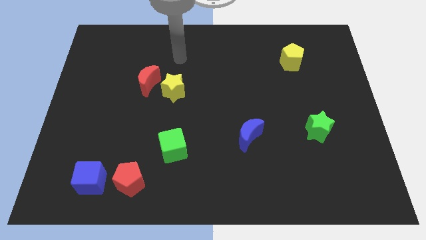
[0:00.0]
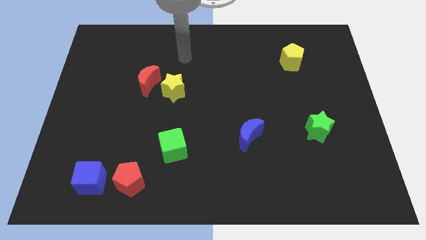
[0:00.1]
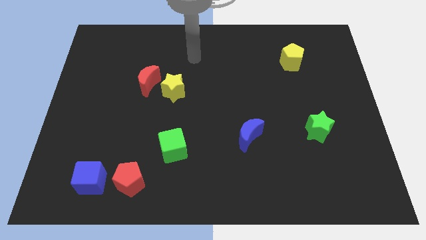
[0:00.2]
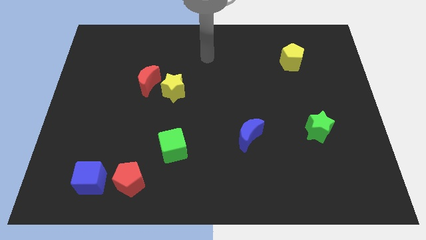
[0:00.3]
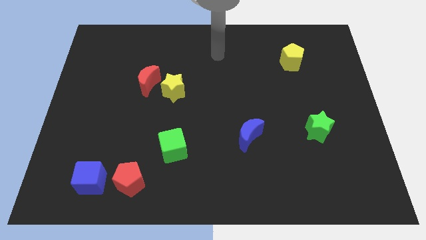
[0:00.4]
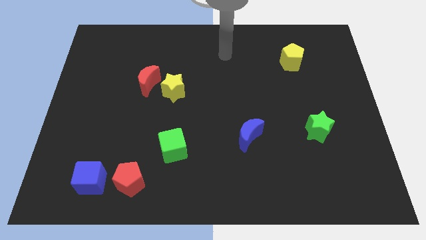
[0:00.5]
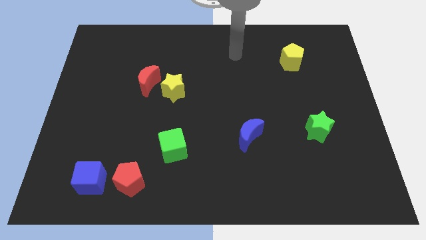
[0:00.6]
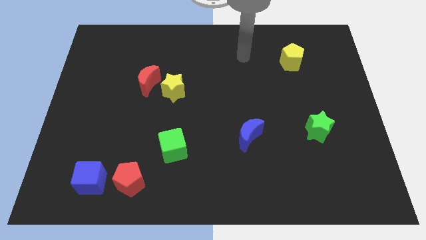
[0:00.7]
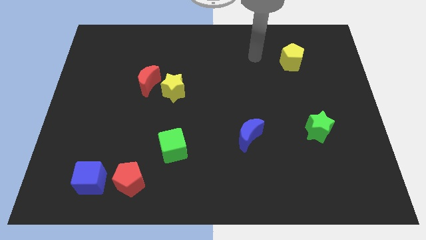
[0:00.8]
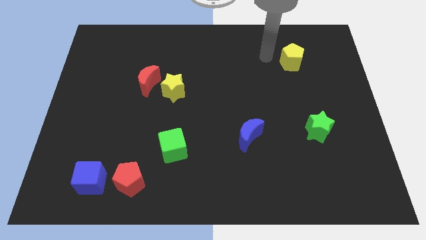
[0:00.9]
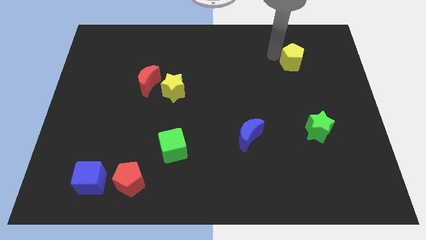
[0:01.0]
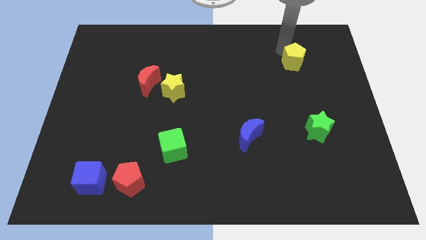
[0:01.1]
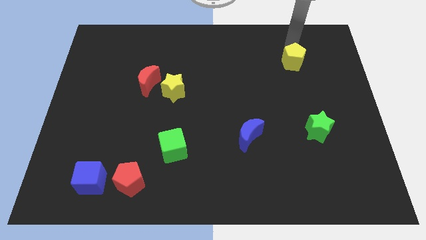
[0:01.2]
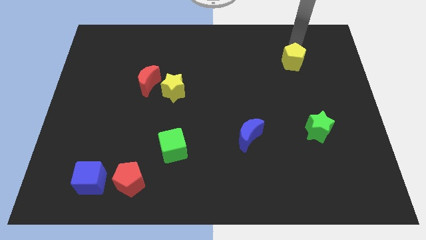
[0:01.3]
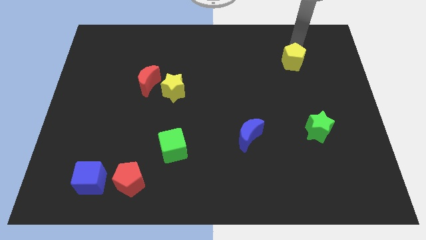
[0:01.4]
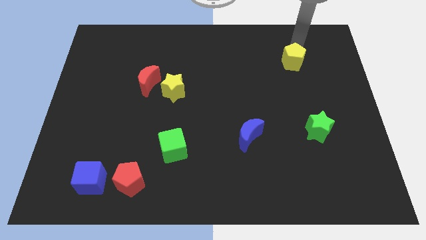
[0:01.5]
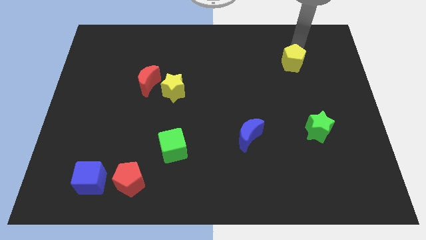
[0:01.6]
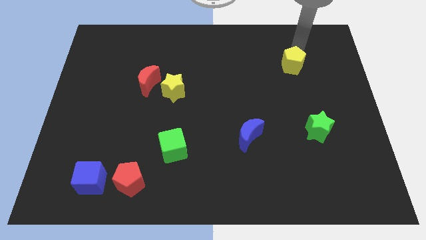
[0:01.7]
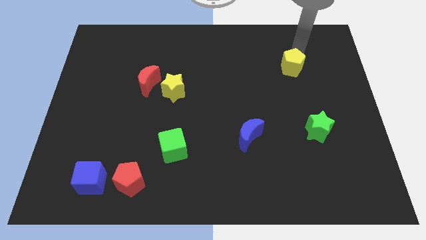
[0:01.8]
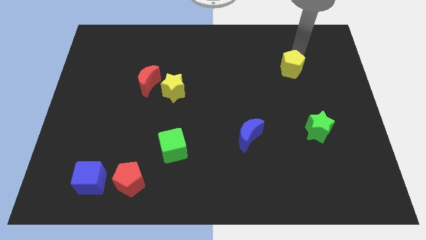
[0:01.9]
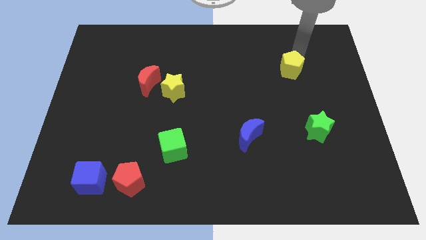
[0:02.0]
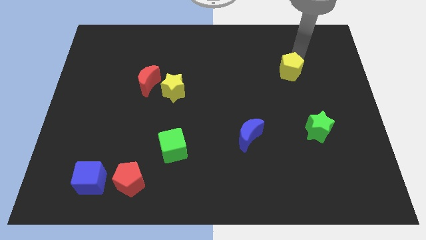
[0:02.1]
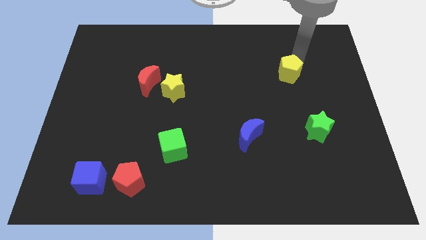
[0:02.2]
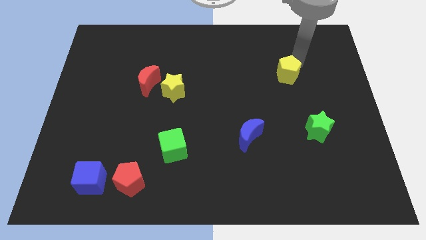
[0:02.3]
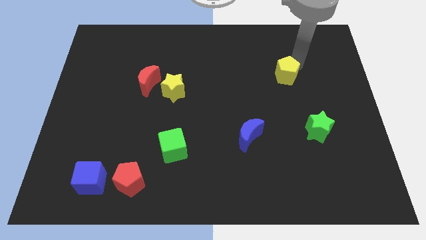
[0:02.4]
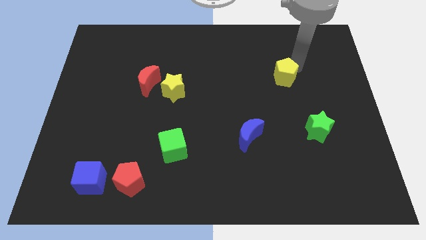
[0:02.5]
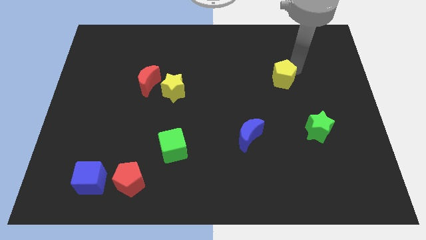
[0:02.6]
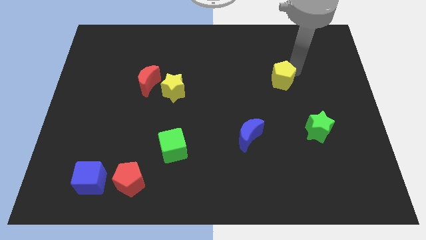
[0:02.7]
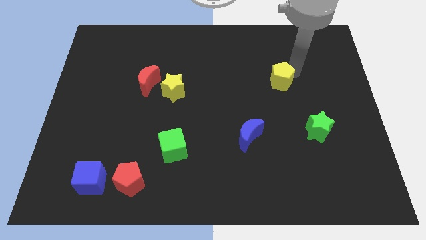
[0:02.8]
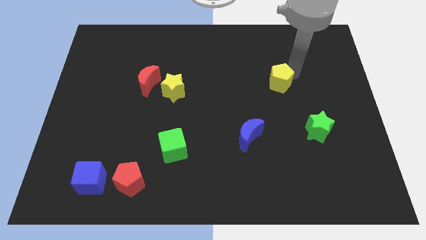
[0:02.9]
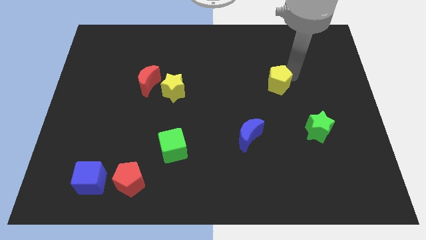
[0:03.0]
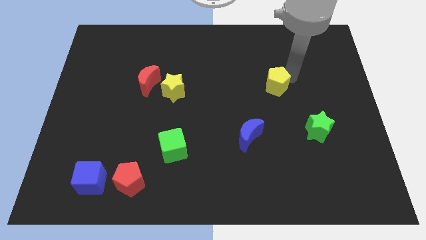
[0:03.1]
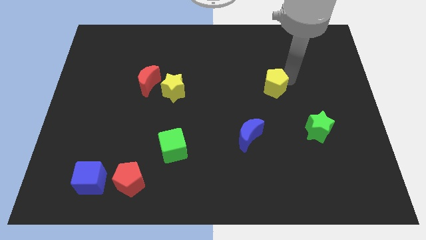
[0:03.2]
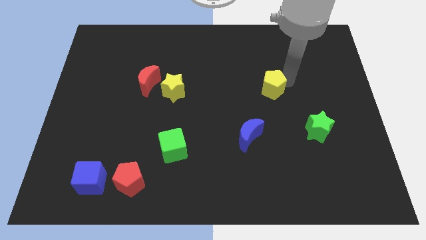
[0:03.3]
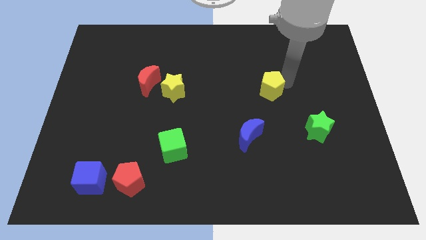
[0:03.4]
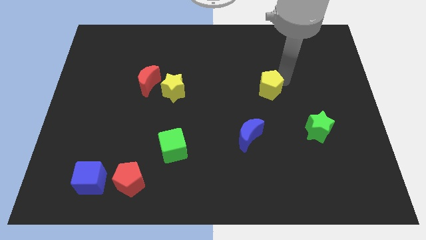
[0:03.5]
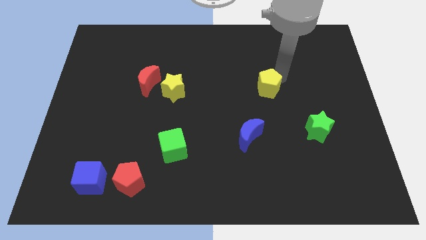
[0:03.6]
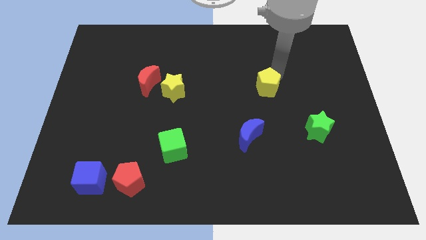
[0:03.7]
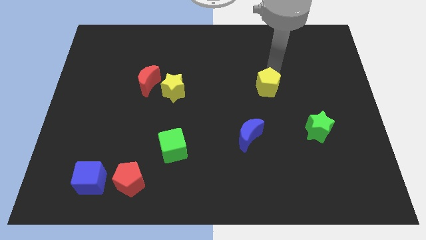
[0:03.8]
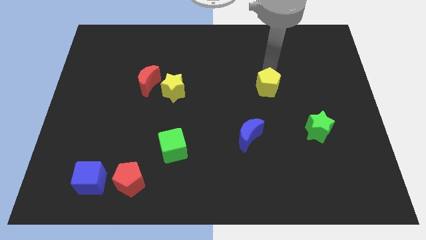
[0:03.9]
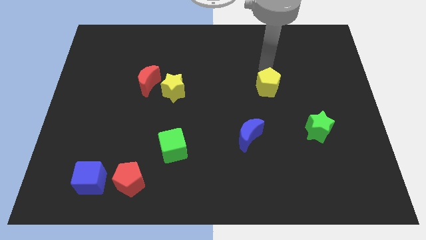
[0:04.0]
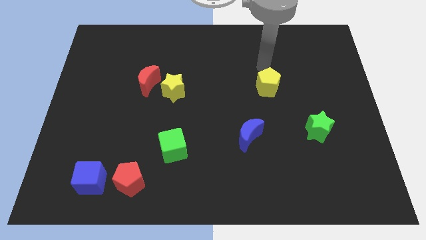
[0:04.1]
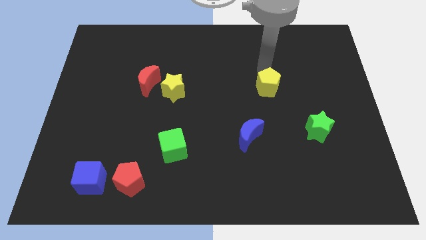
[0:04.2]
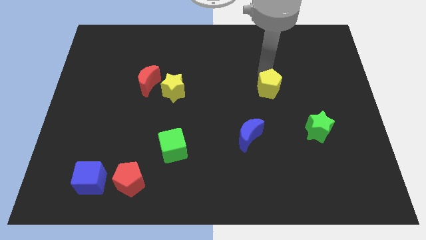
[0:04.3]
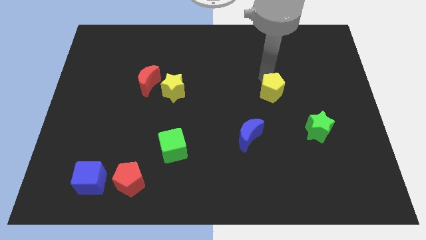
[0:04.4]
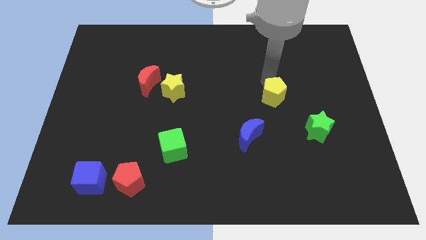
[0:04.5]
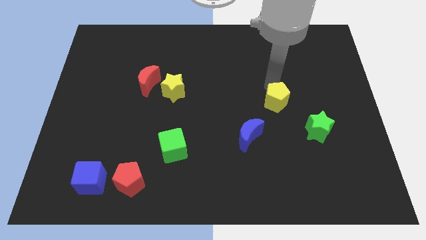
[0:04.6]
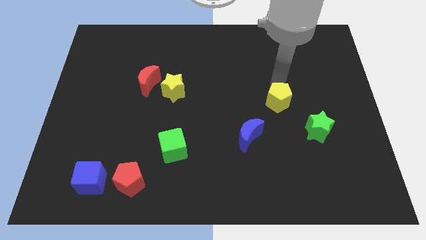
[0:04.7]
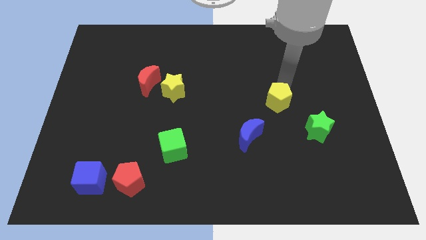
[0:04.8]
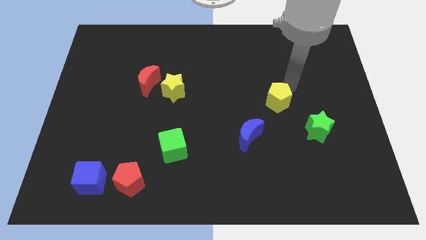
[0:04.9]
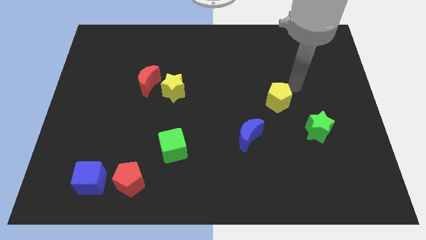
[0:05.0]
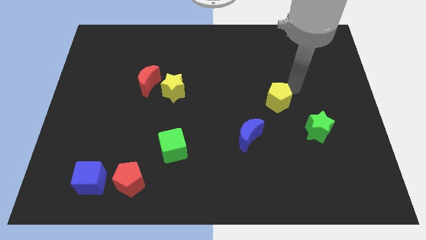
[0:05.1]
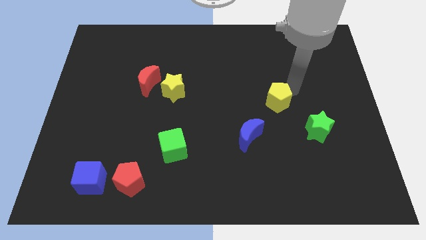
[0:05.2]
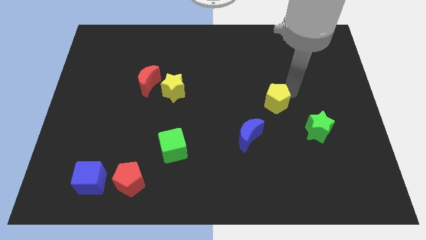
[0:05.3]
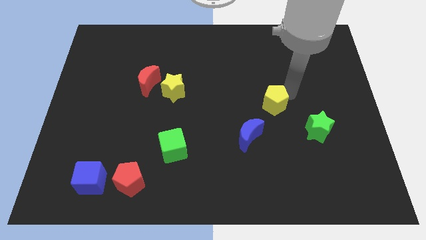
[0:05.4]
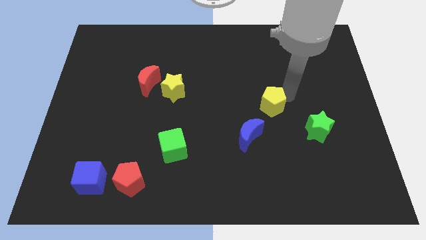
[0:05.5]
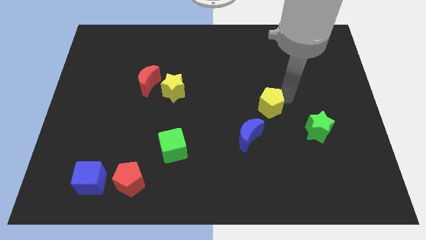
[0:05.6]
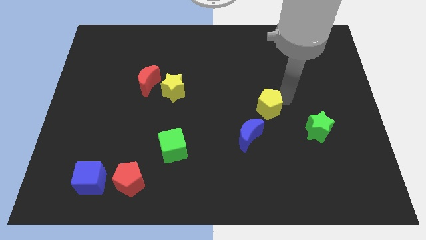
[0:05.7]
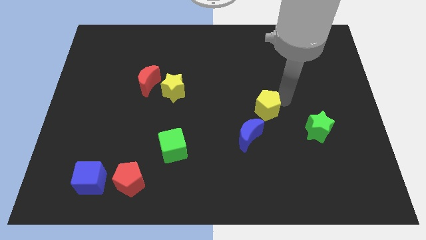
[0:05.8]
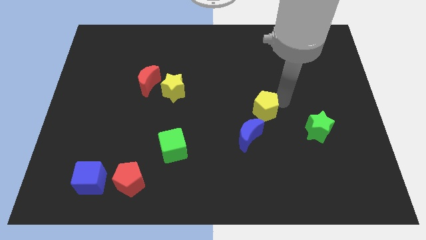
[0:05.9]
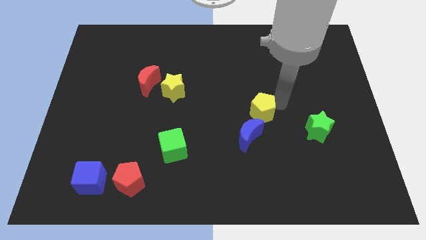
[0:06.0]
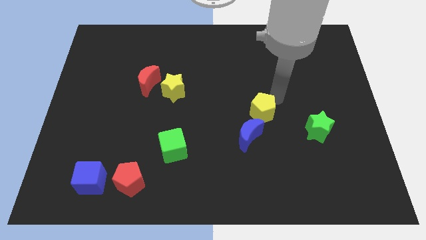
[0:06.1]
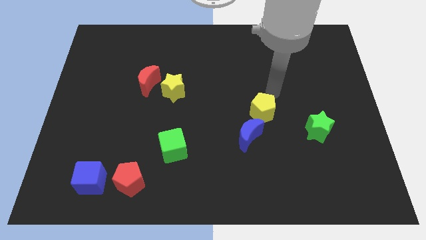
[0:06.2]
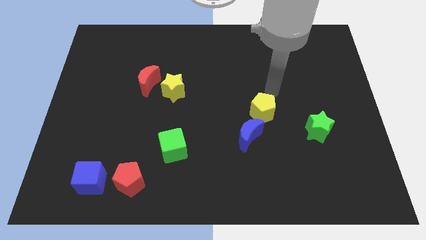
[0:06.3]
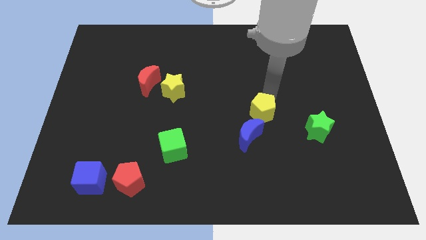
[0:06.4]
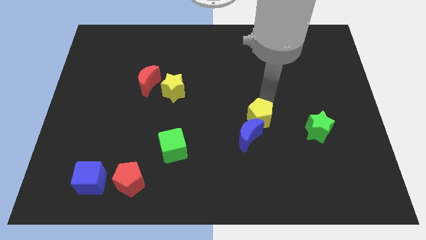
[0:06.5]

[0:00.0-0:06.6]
push the yellow pentagon close to the blue moon
